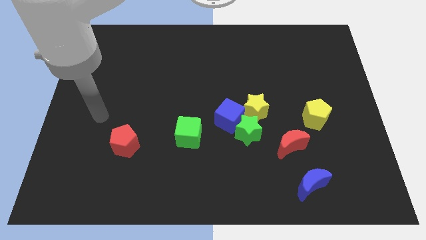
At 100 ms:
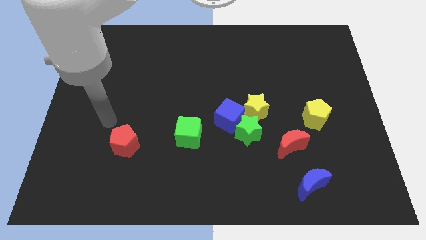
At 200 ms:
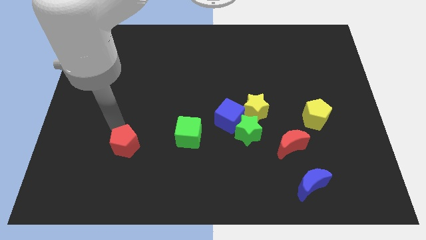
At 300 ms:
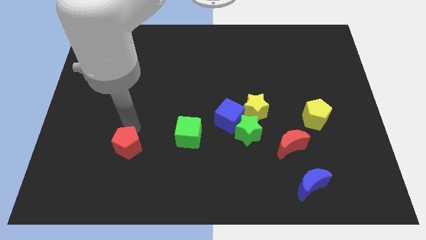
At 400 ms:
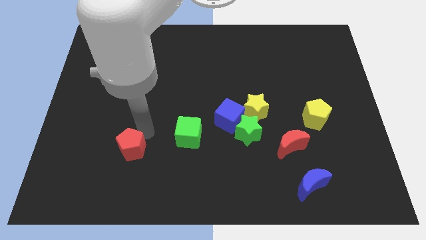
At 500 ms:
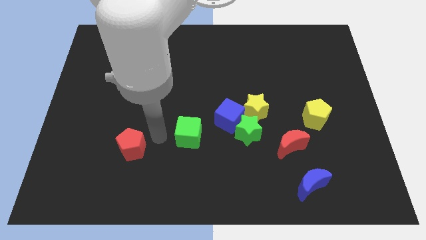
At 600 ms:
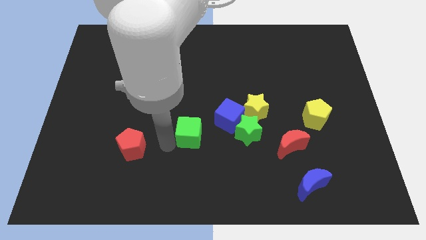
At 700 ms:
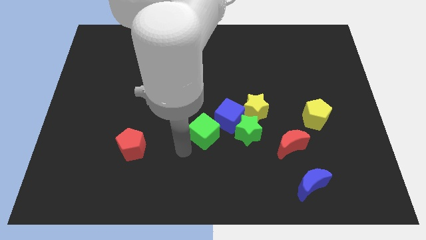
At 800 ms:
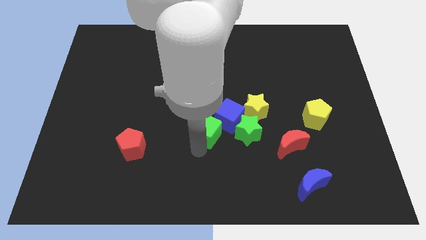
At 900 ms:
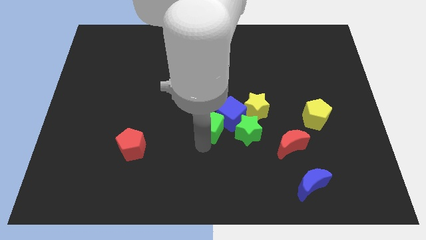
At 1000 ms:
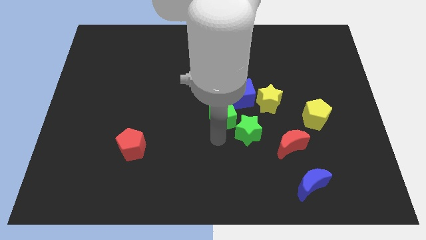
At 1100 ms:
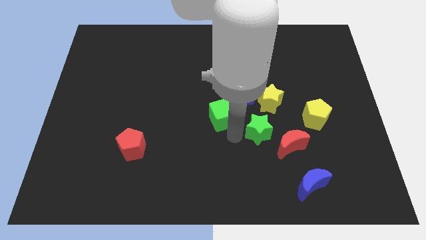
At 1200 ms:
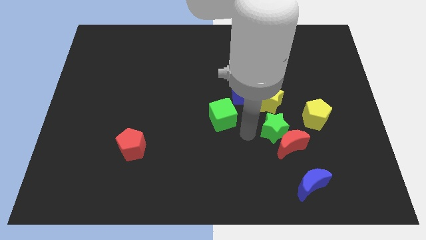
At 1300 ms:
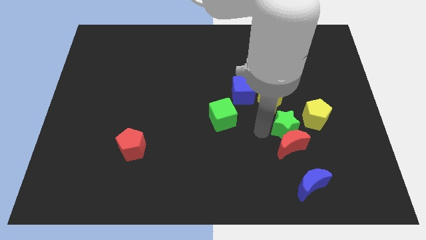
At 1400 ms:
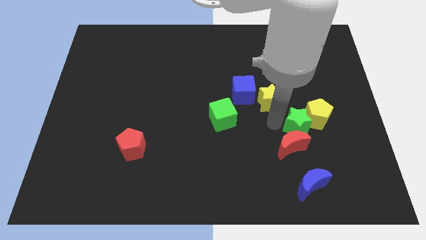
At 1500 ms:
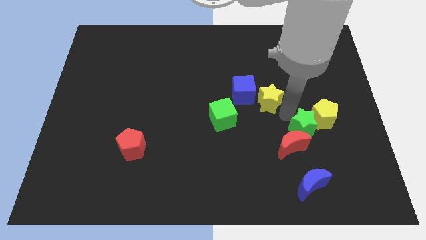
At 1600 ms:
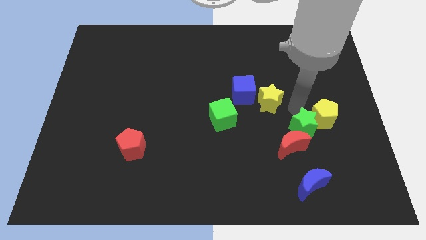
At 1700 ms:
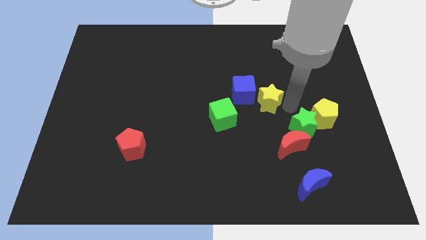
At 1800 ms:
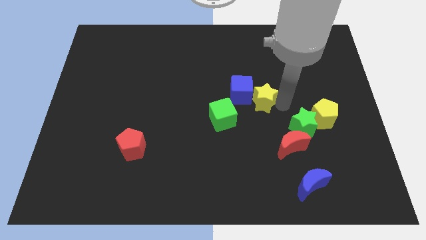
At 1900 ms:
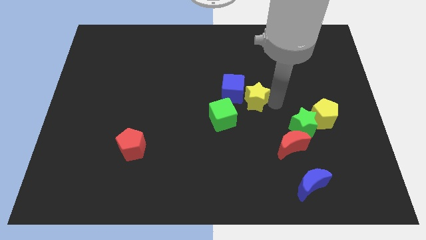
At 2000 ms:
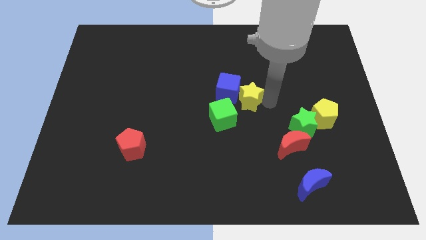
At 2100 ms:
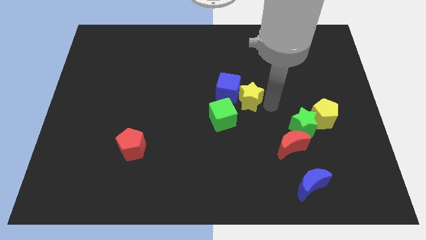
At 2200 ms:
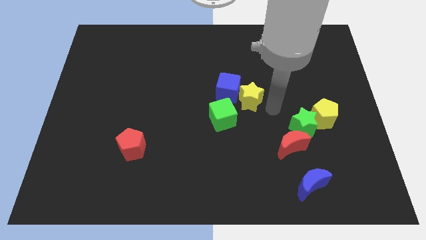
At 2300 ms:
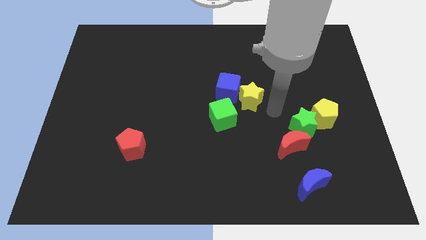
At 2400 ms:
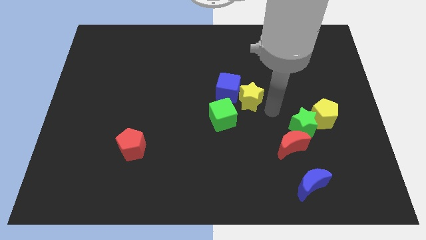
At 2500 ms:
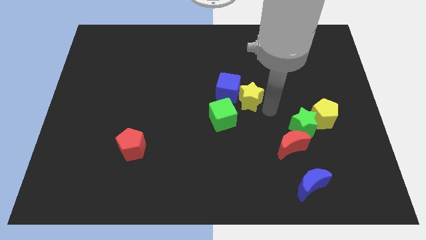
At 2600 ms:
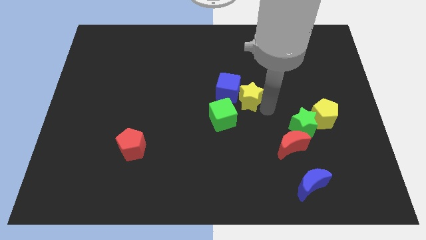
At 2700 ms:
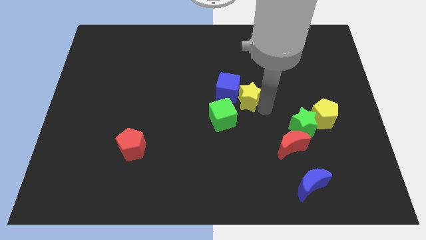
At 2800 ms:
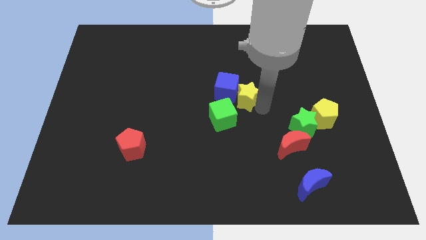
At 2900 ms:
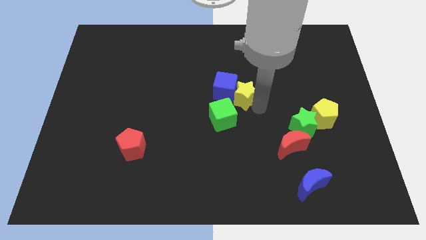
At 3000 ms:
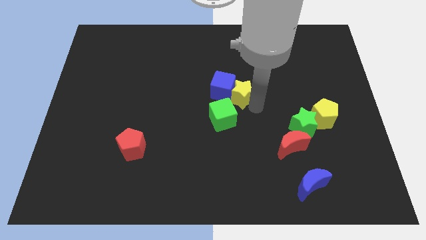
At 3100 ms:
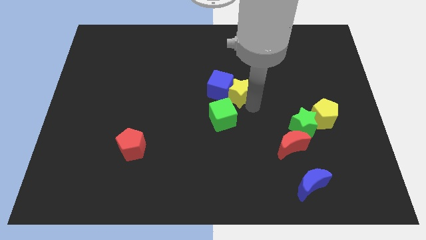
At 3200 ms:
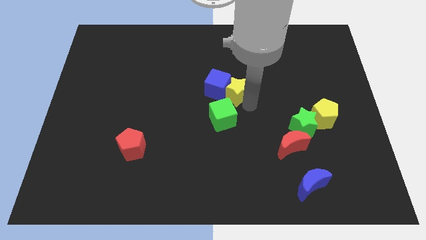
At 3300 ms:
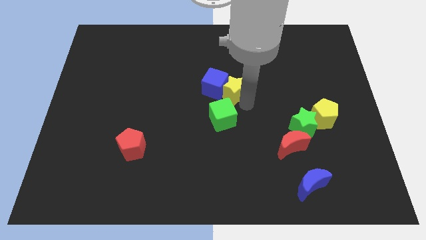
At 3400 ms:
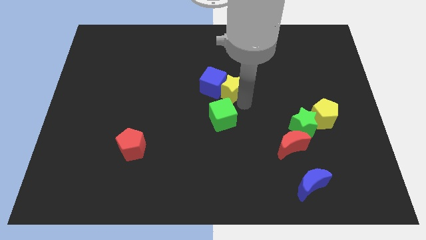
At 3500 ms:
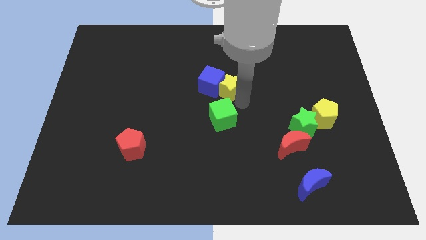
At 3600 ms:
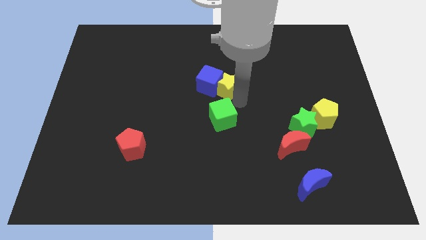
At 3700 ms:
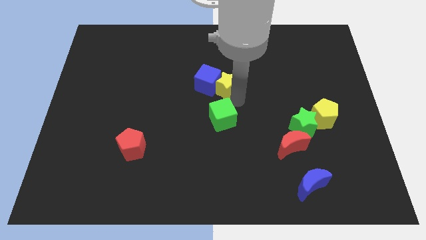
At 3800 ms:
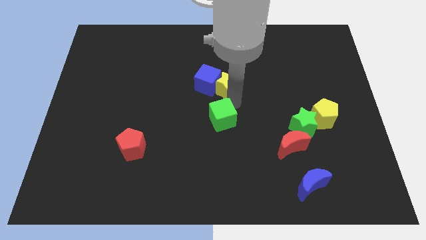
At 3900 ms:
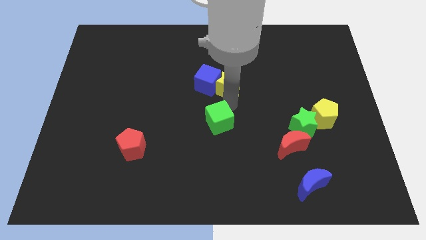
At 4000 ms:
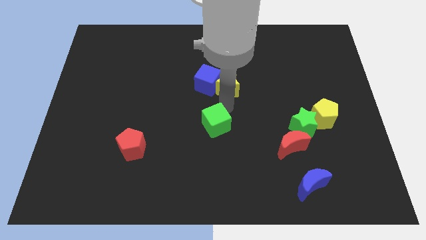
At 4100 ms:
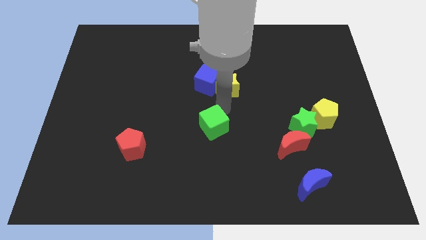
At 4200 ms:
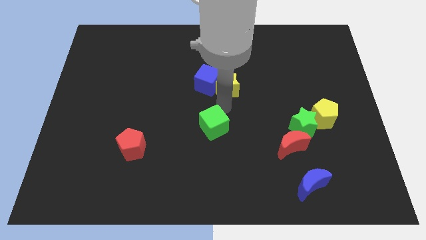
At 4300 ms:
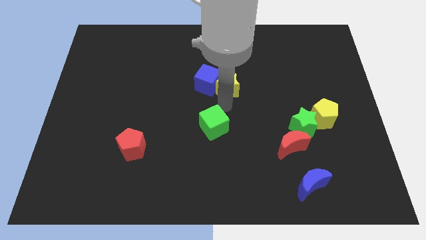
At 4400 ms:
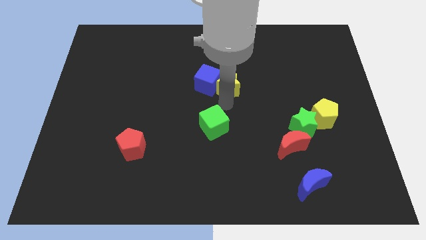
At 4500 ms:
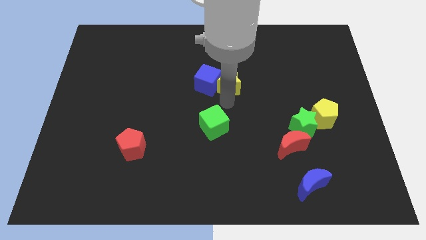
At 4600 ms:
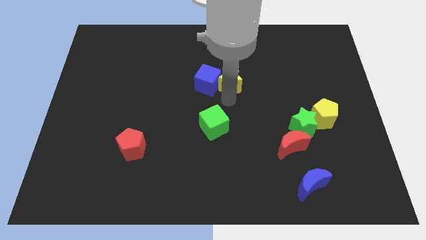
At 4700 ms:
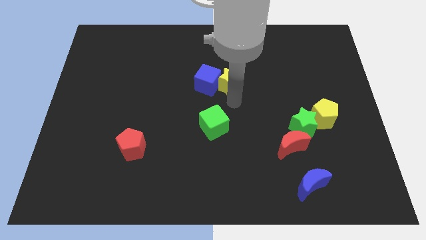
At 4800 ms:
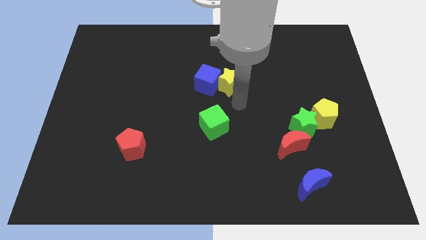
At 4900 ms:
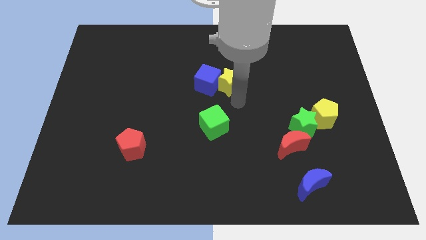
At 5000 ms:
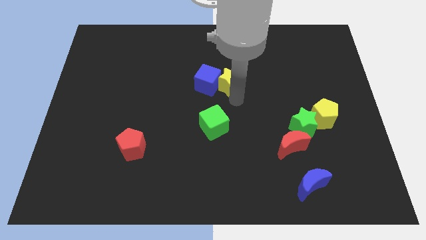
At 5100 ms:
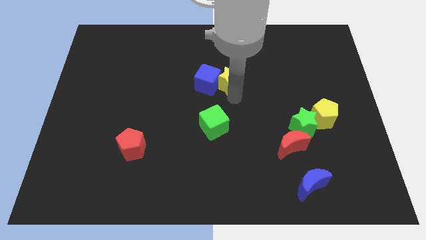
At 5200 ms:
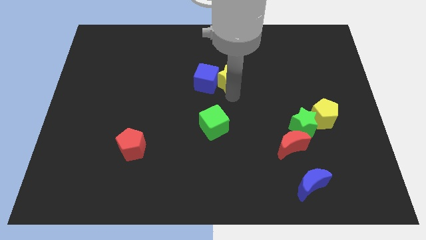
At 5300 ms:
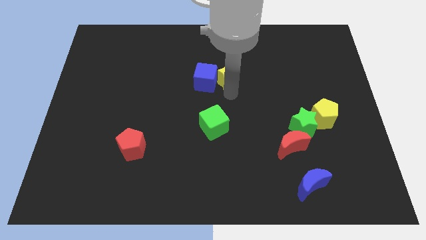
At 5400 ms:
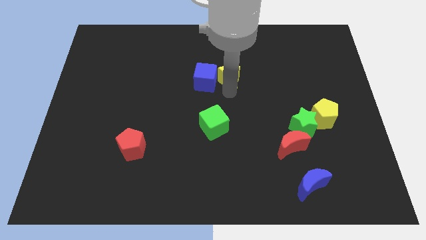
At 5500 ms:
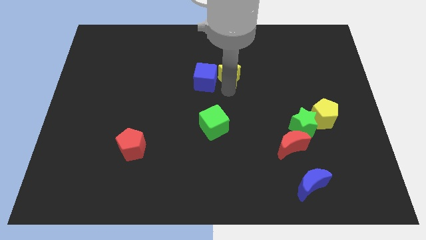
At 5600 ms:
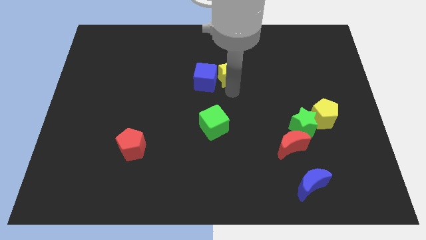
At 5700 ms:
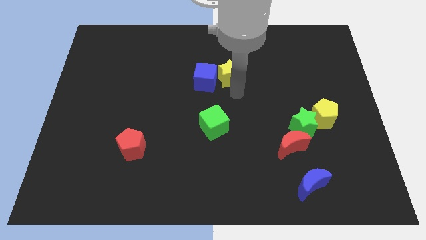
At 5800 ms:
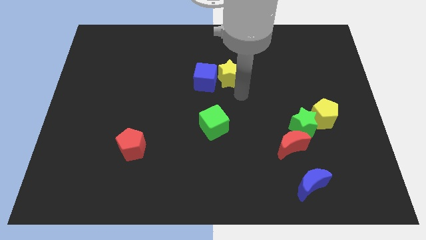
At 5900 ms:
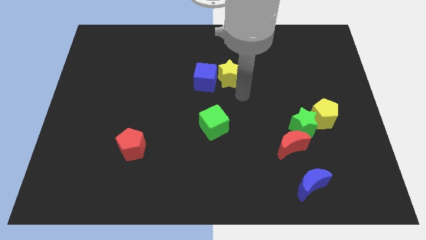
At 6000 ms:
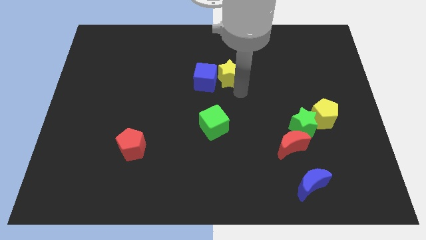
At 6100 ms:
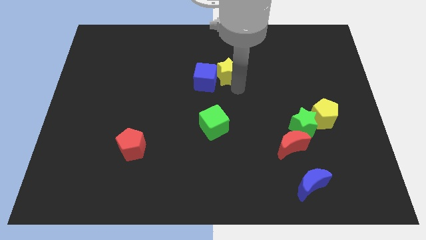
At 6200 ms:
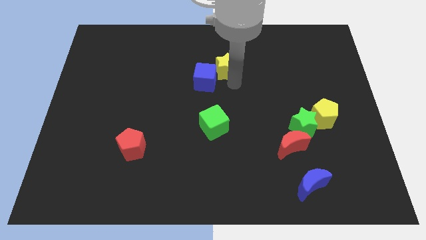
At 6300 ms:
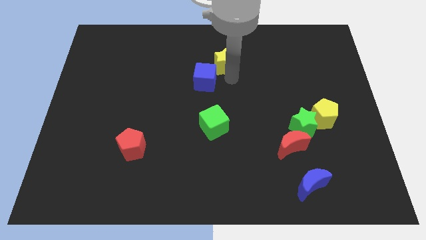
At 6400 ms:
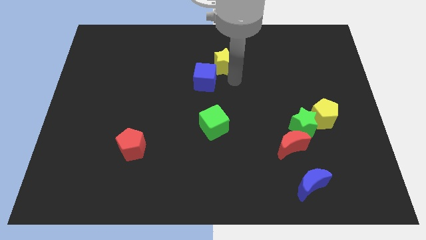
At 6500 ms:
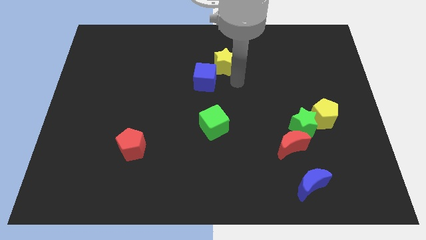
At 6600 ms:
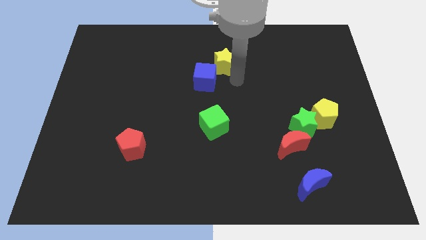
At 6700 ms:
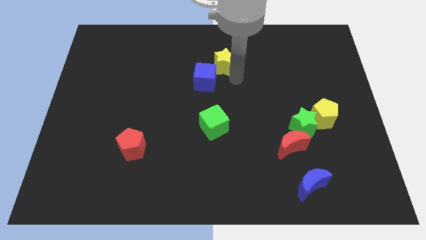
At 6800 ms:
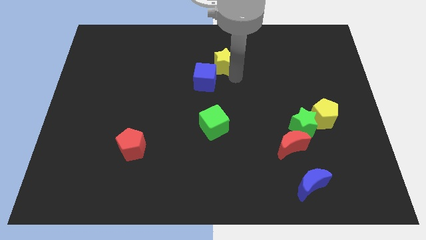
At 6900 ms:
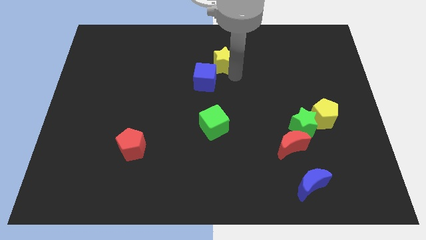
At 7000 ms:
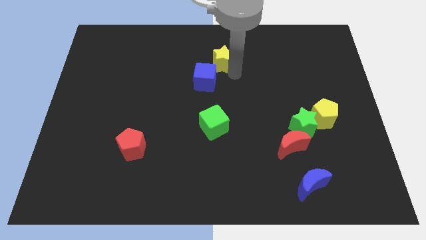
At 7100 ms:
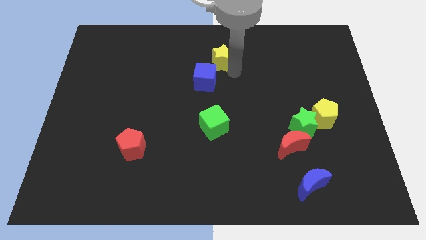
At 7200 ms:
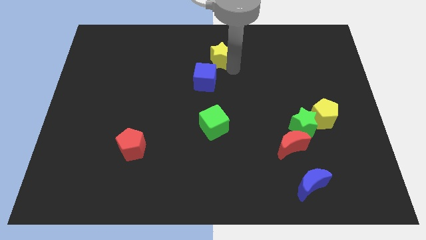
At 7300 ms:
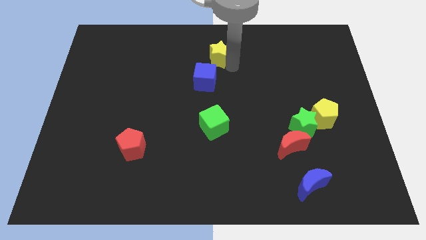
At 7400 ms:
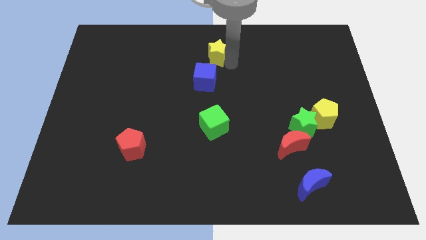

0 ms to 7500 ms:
slide the yellow star to the towards your base
